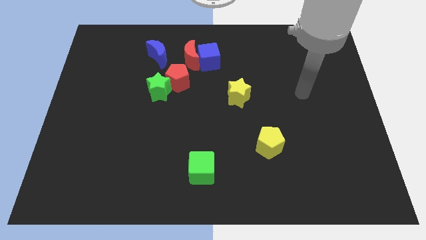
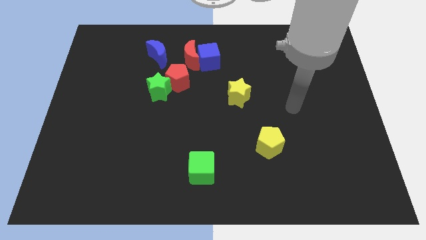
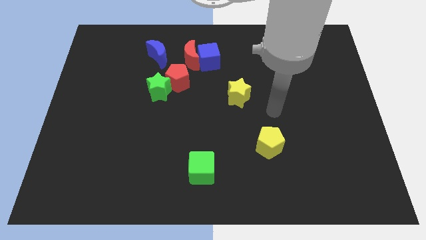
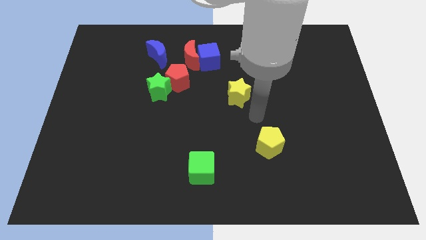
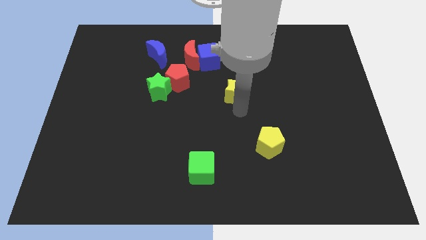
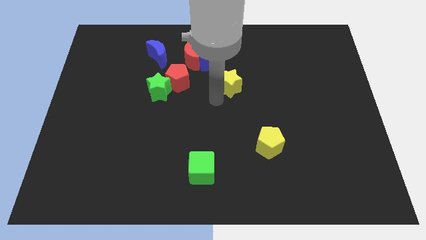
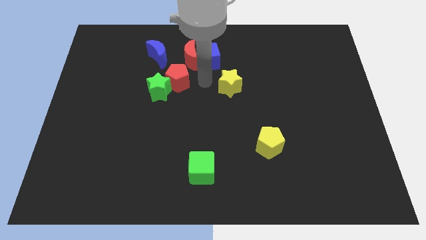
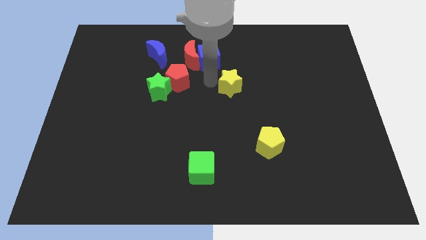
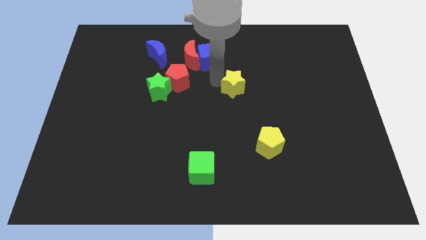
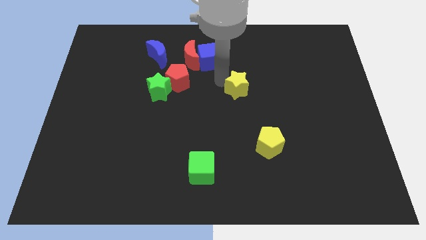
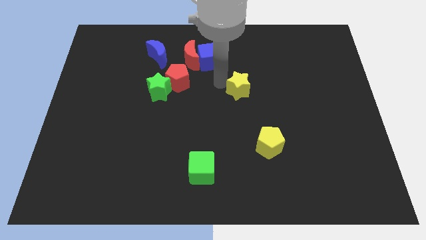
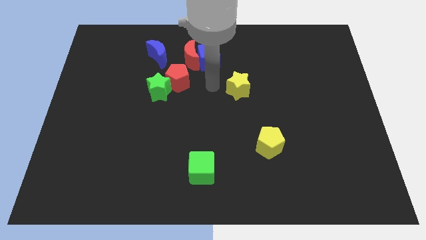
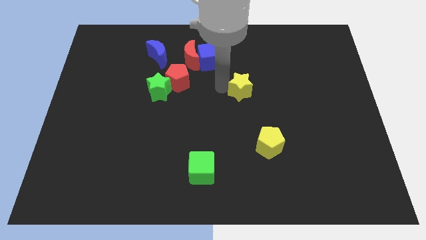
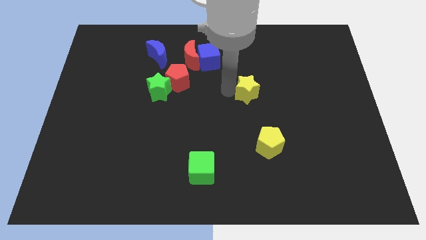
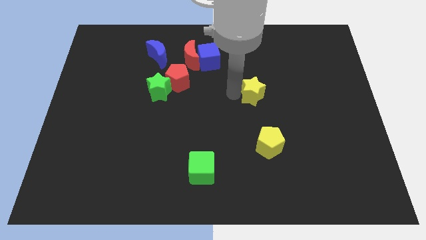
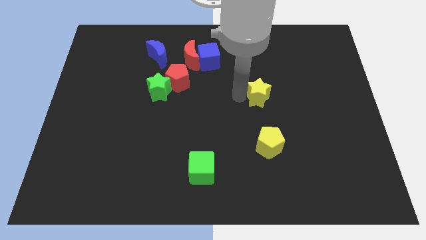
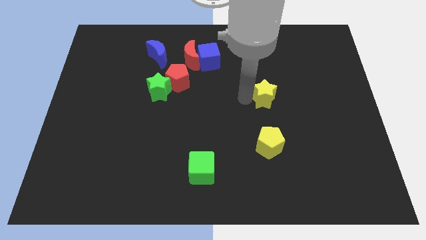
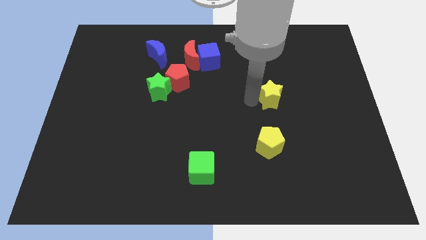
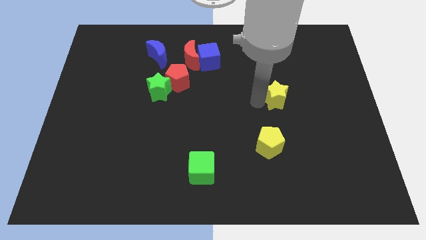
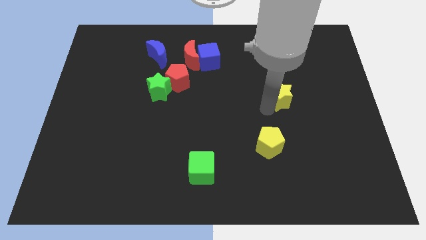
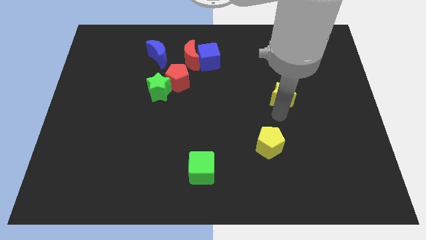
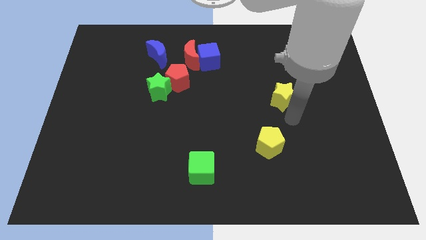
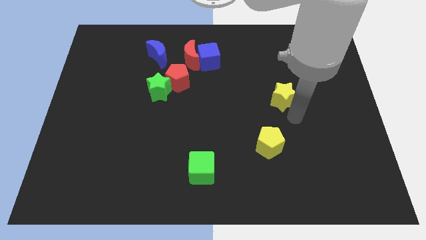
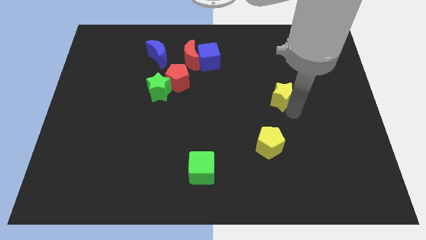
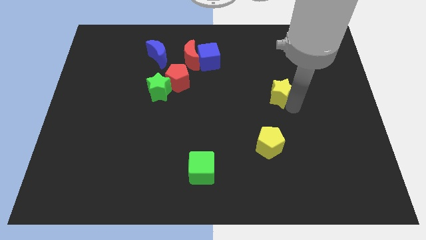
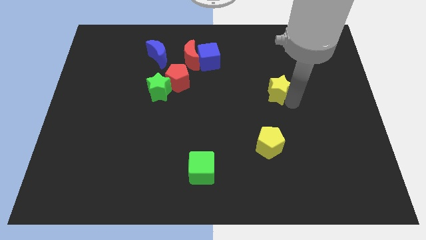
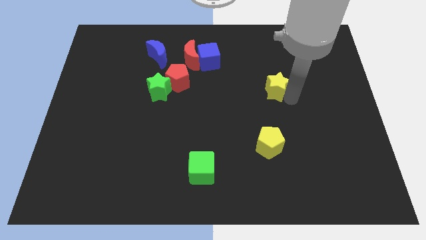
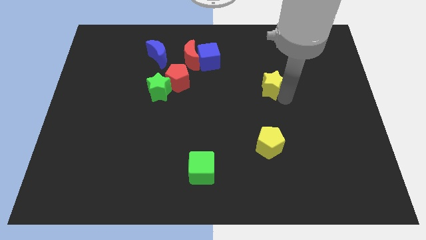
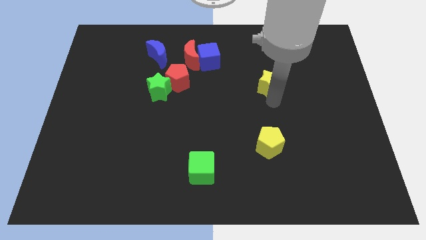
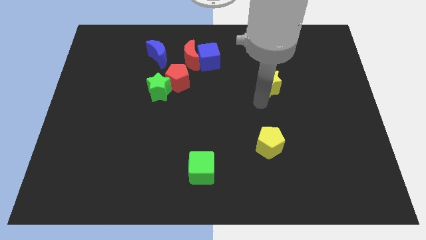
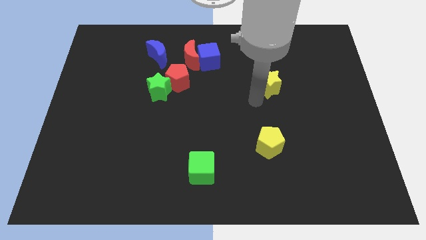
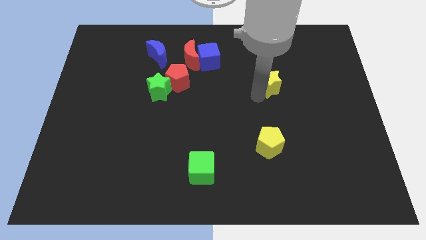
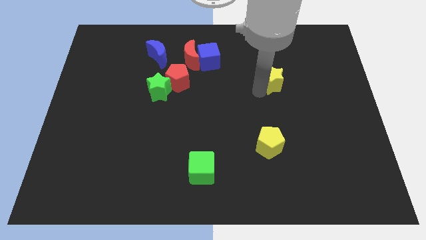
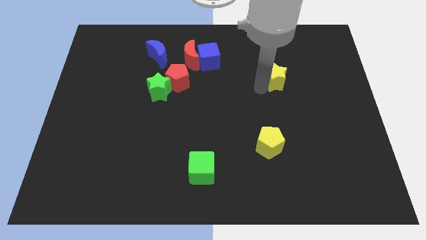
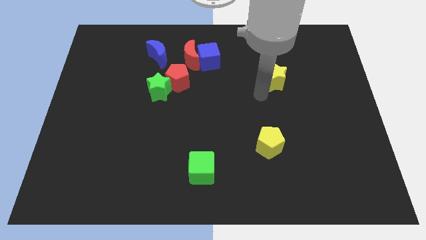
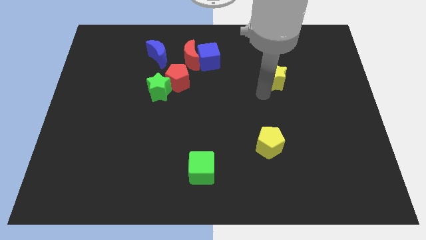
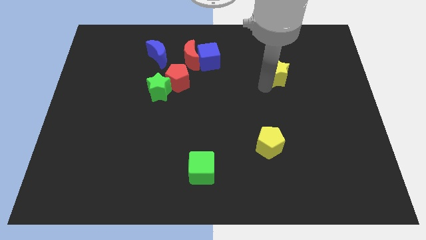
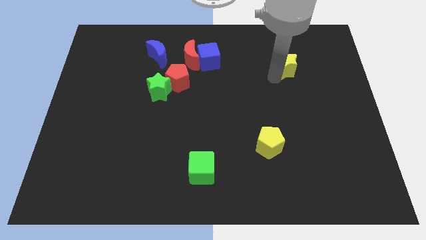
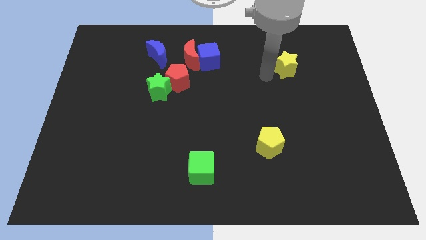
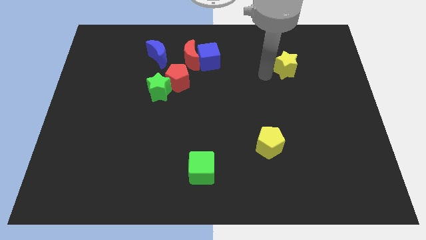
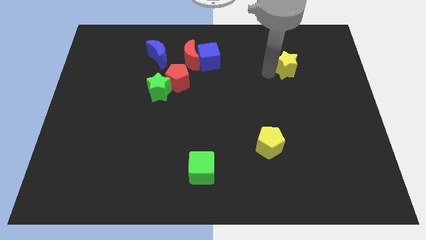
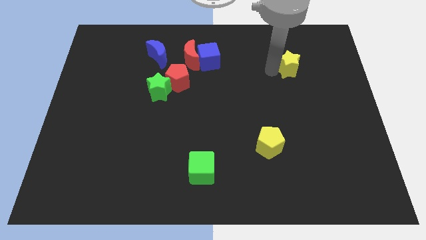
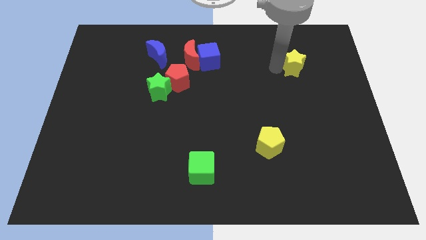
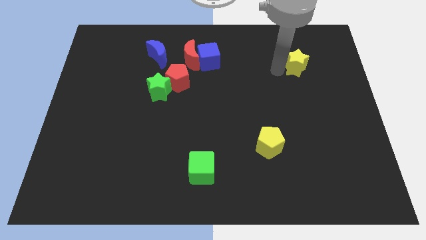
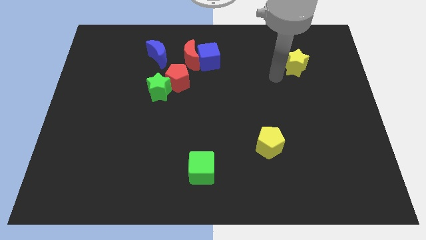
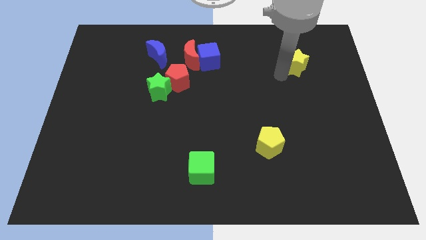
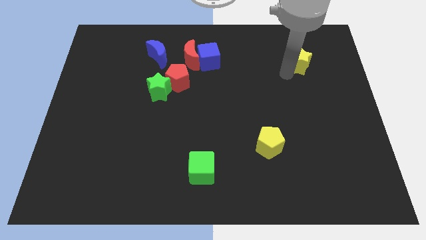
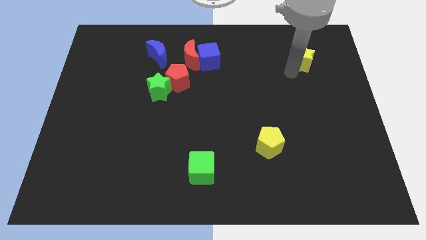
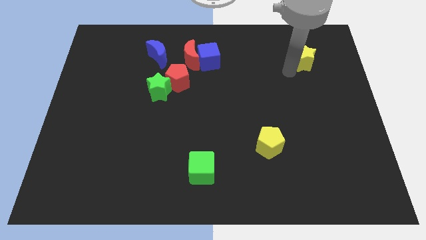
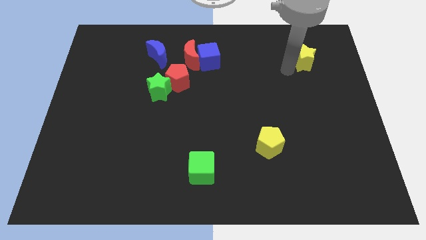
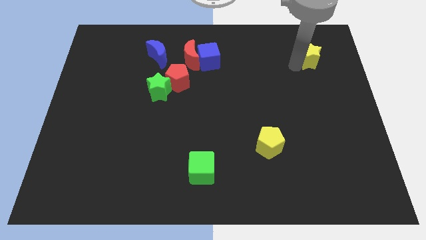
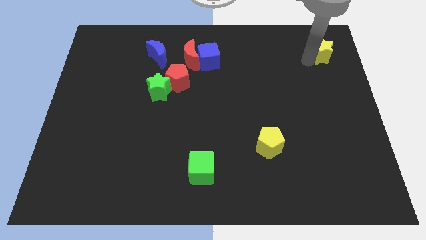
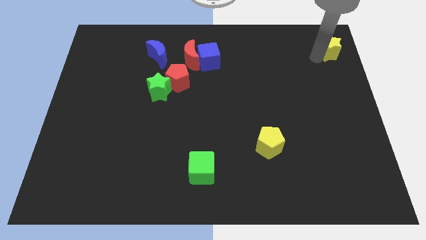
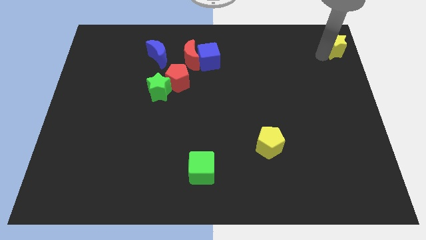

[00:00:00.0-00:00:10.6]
put the yellow star to the top right of the board
